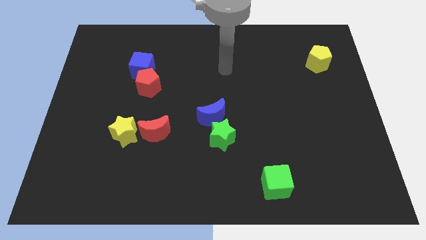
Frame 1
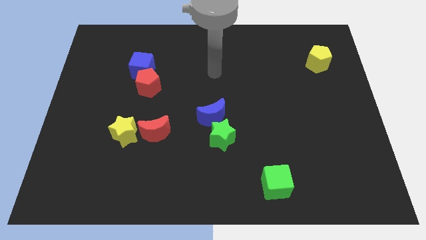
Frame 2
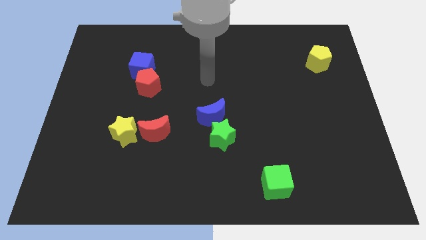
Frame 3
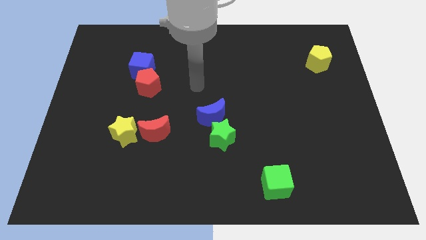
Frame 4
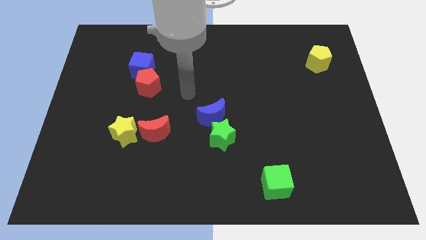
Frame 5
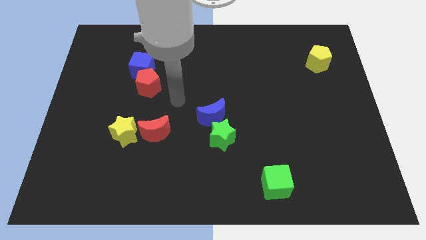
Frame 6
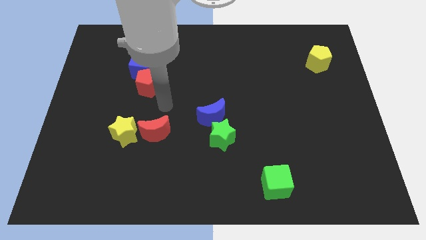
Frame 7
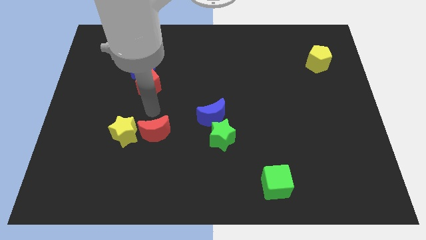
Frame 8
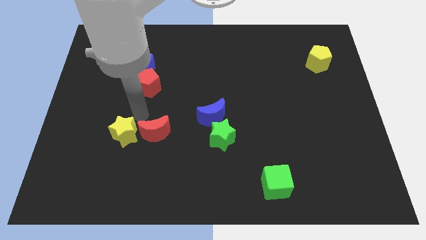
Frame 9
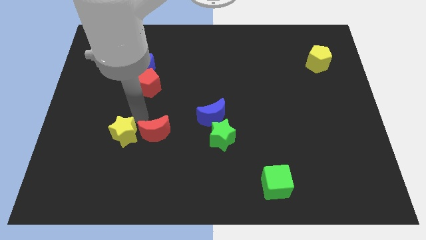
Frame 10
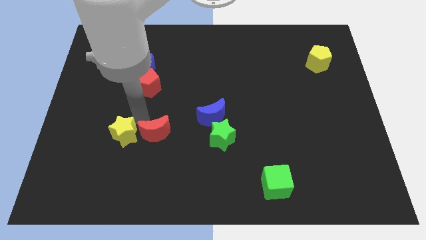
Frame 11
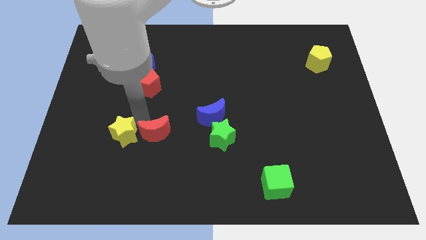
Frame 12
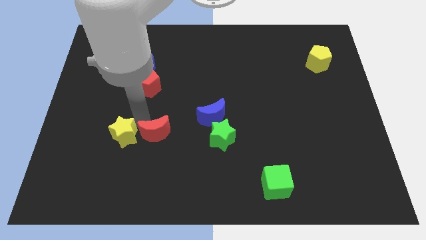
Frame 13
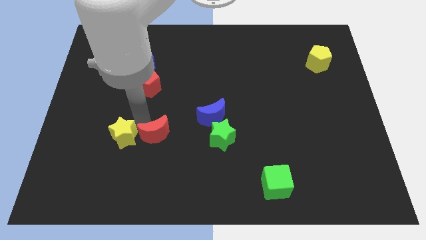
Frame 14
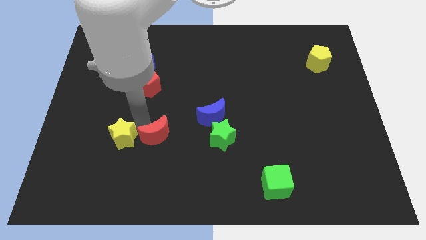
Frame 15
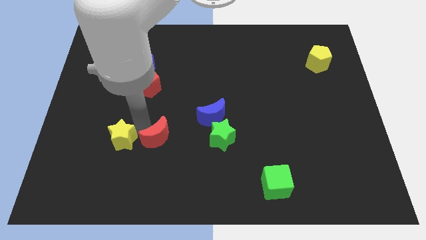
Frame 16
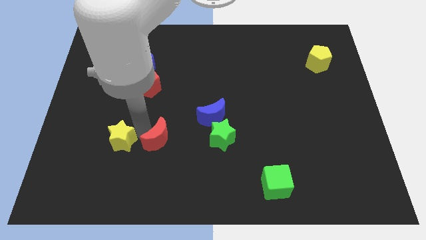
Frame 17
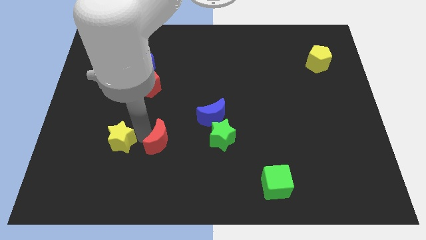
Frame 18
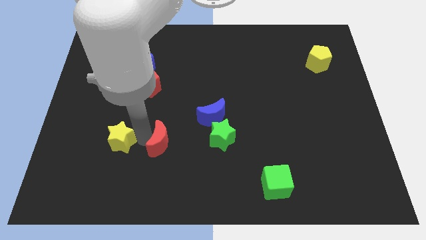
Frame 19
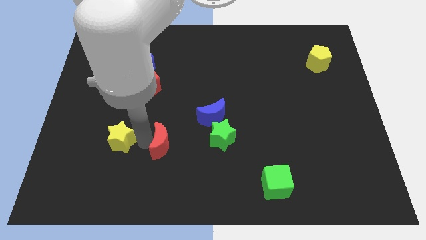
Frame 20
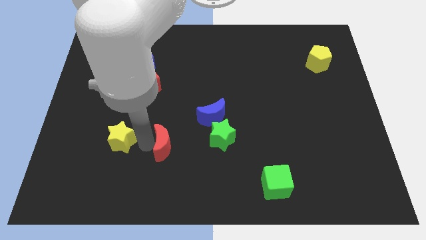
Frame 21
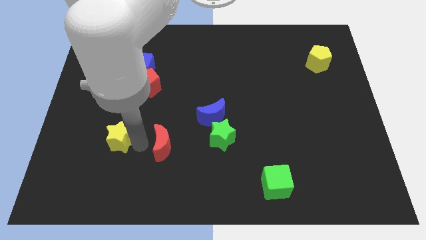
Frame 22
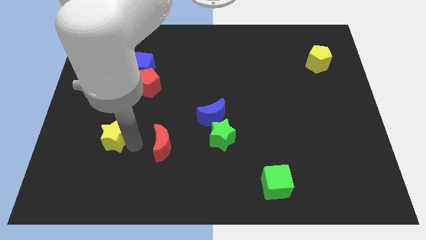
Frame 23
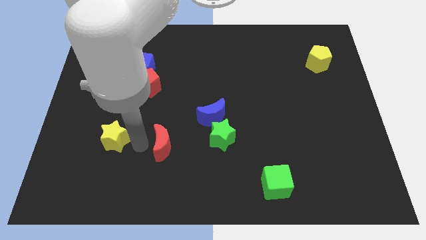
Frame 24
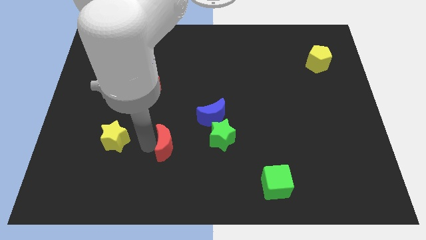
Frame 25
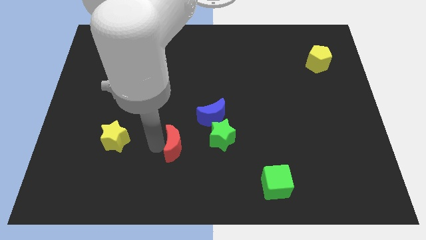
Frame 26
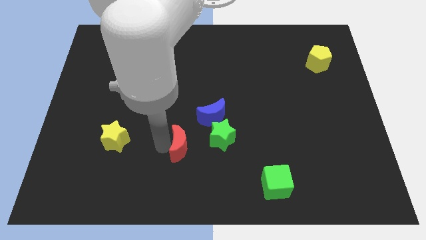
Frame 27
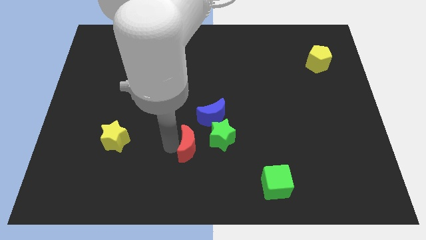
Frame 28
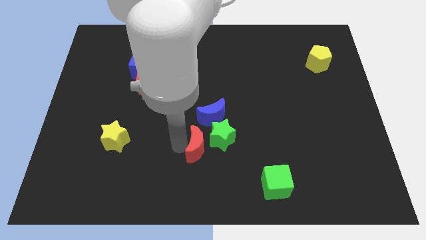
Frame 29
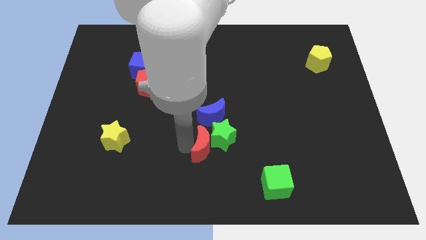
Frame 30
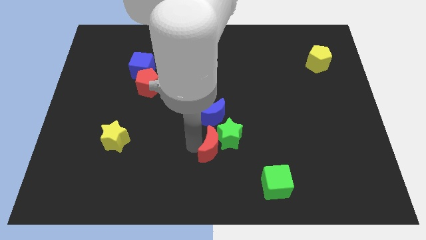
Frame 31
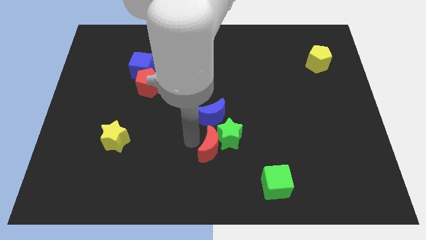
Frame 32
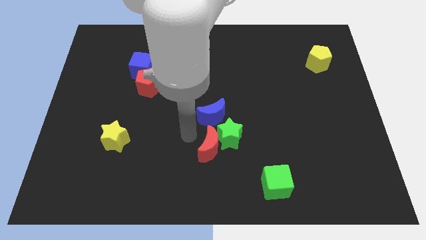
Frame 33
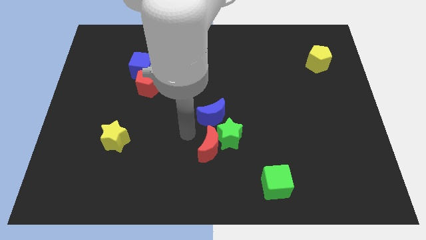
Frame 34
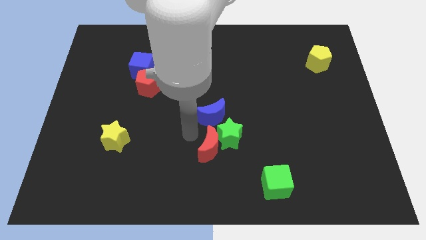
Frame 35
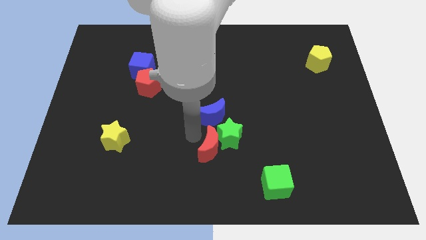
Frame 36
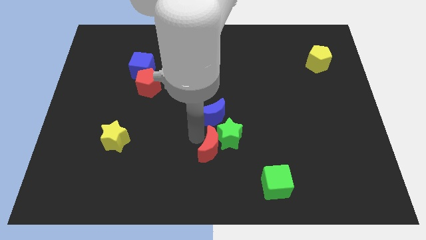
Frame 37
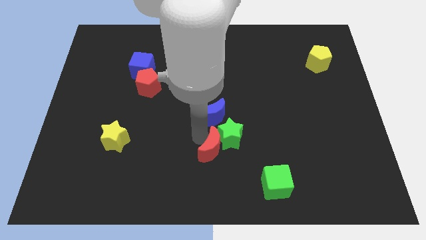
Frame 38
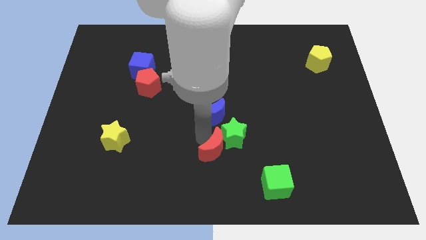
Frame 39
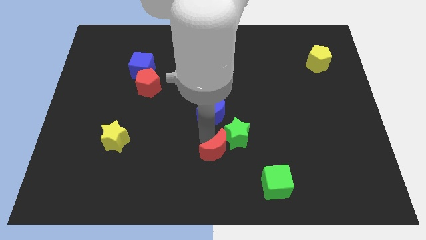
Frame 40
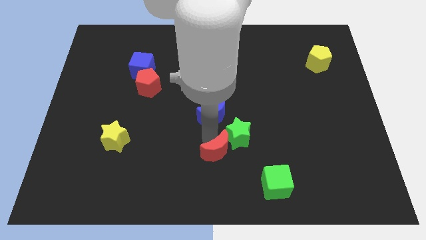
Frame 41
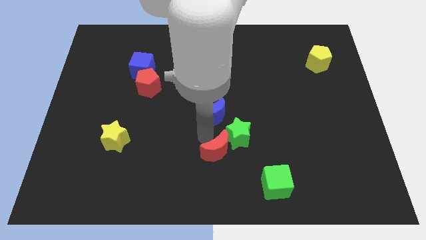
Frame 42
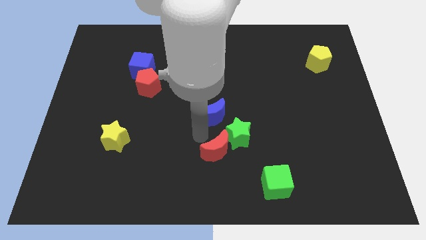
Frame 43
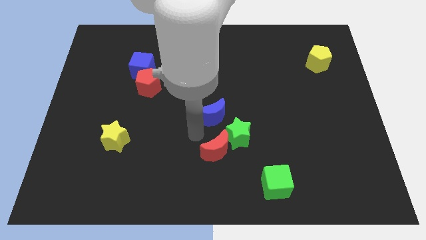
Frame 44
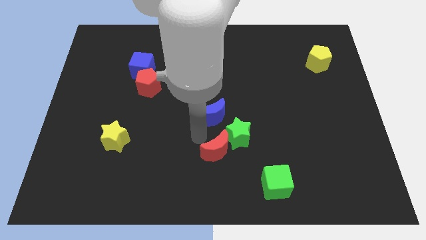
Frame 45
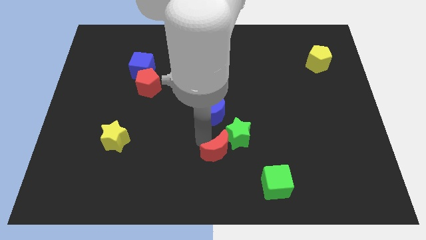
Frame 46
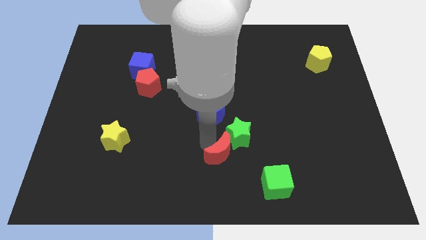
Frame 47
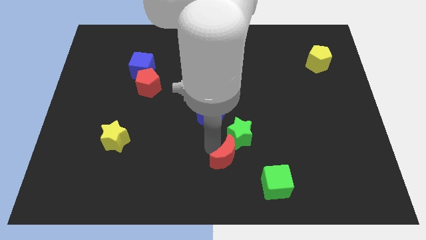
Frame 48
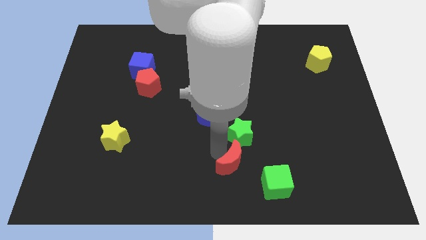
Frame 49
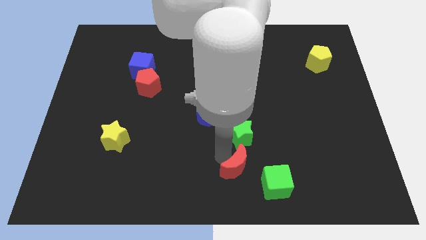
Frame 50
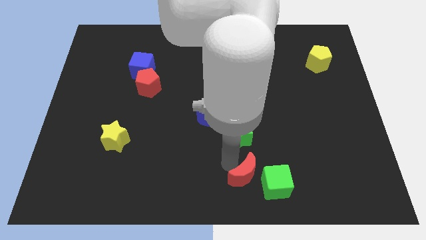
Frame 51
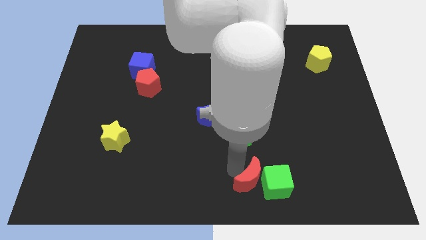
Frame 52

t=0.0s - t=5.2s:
move the red moon towards the green cube

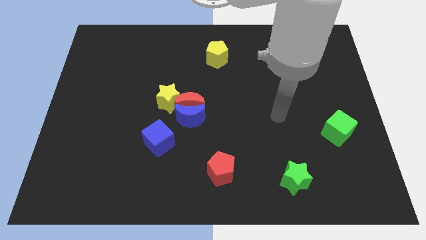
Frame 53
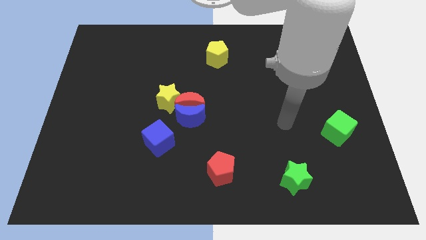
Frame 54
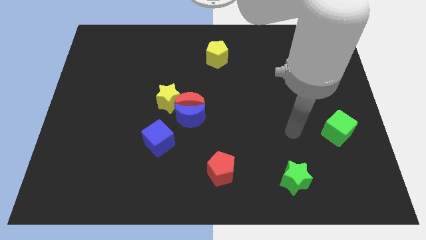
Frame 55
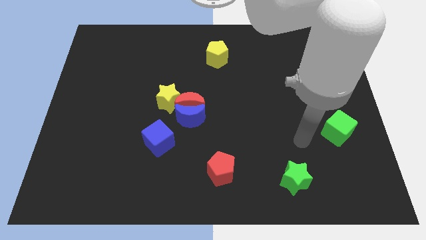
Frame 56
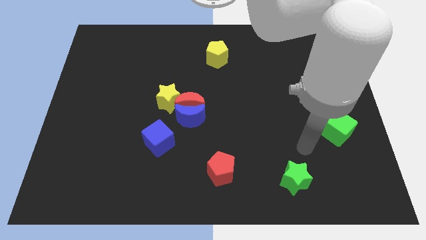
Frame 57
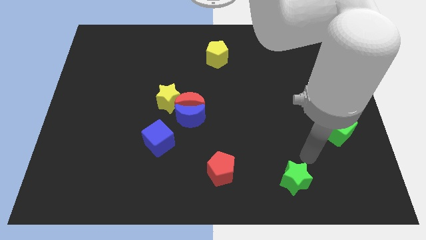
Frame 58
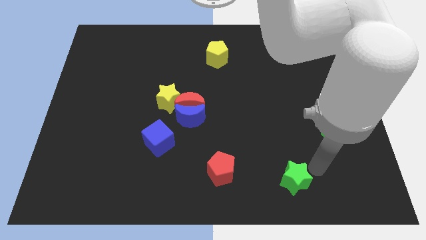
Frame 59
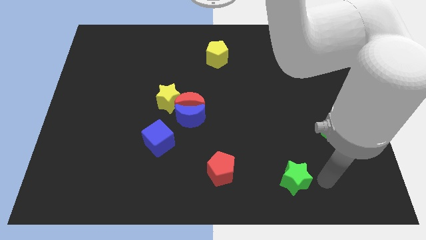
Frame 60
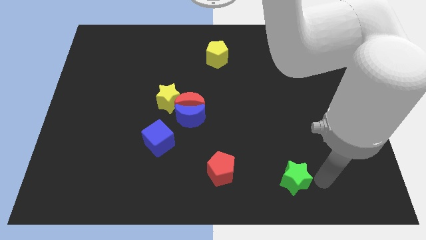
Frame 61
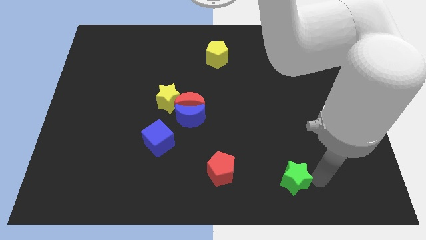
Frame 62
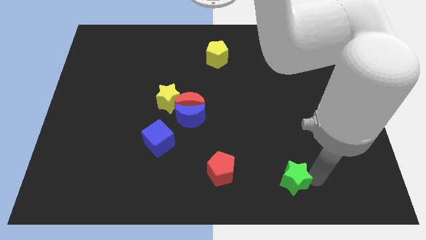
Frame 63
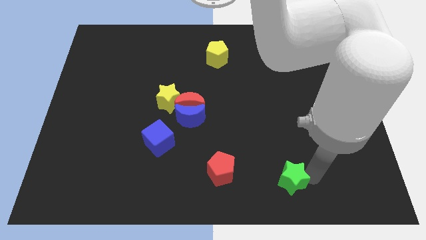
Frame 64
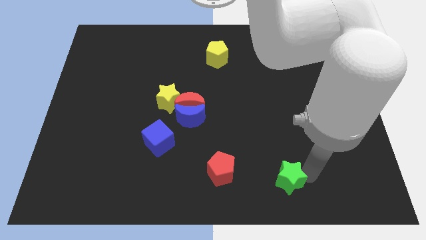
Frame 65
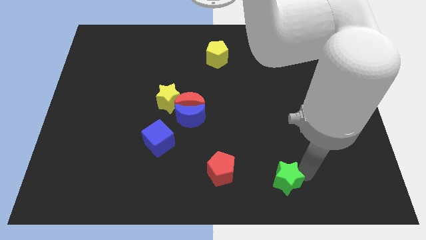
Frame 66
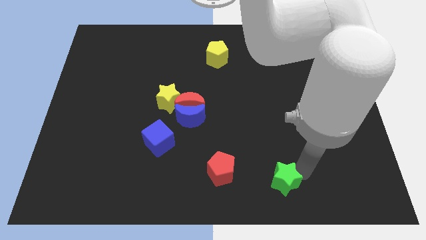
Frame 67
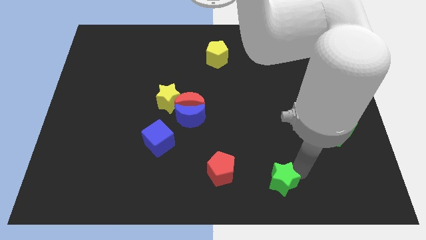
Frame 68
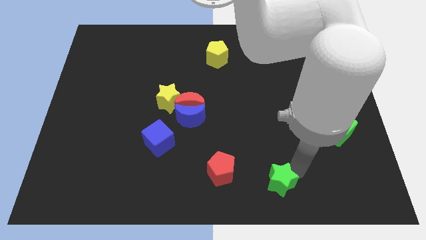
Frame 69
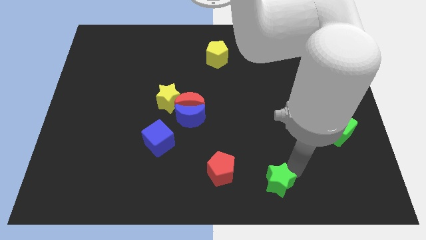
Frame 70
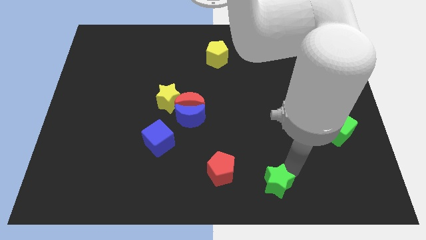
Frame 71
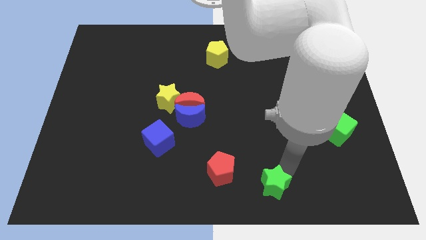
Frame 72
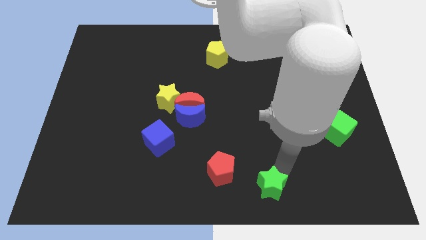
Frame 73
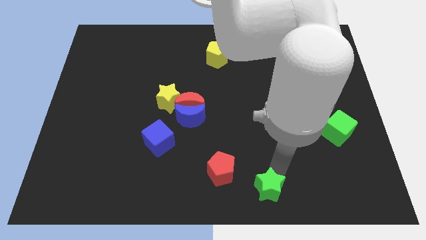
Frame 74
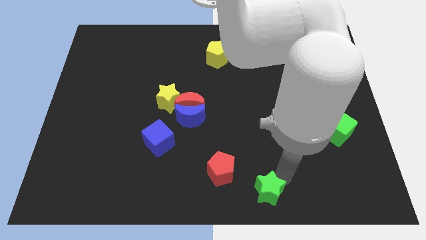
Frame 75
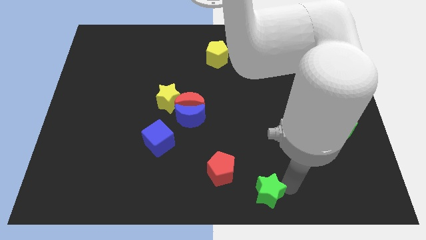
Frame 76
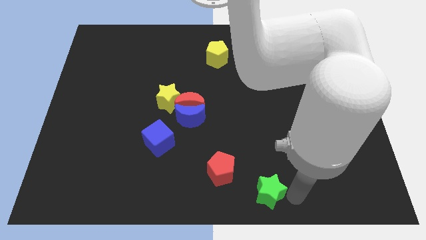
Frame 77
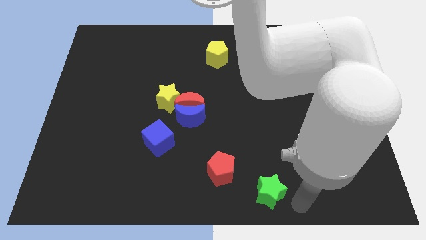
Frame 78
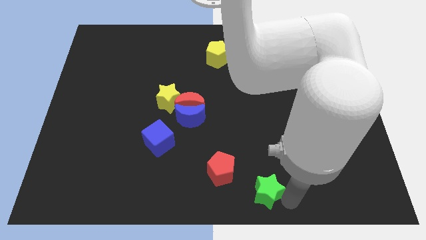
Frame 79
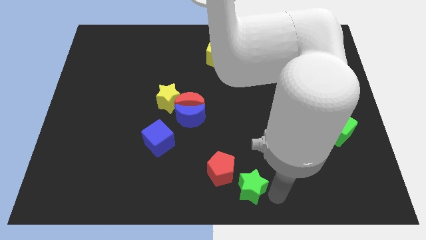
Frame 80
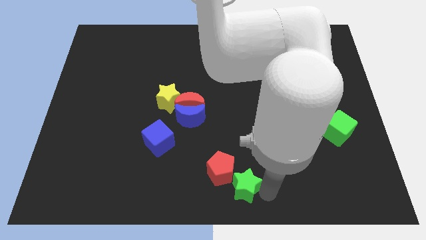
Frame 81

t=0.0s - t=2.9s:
move the green star next to the red pentagon
